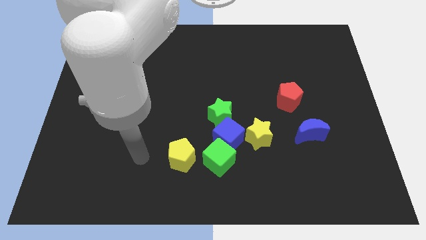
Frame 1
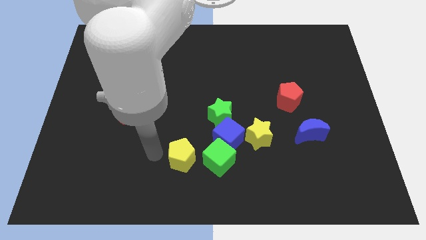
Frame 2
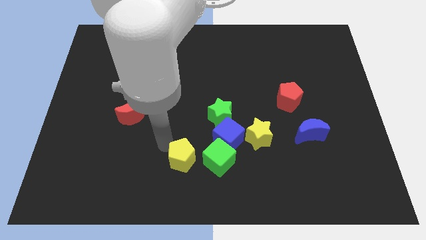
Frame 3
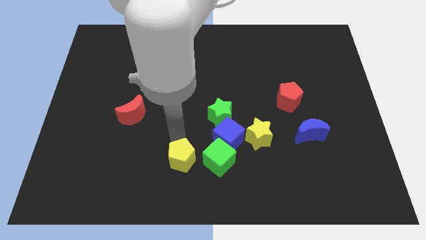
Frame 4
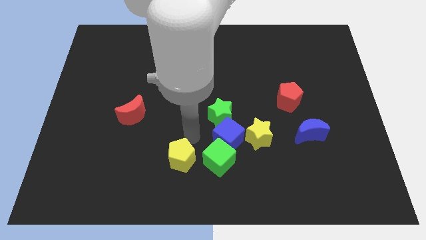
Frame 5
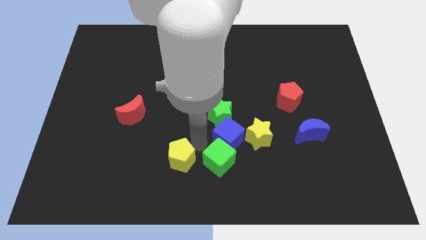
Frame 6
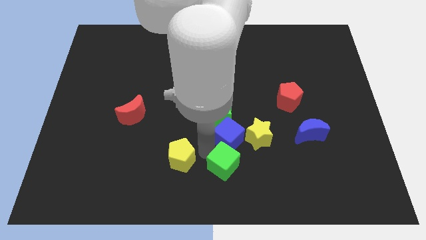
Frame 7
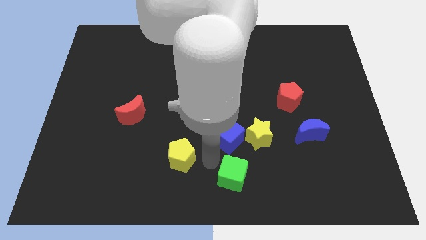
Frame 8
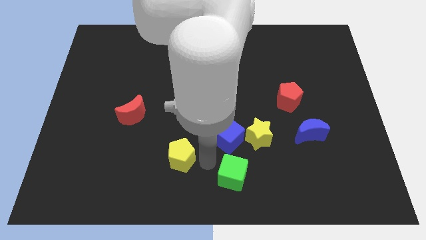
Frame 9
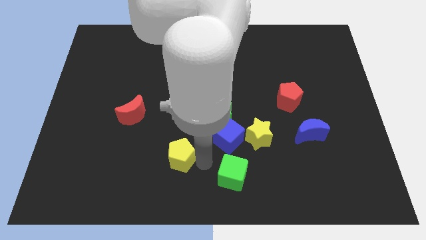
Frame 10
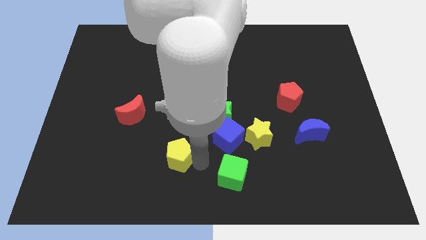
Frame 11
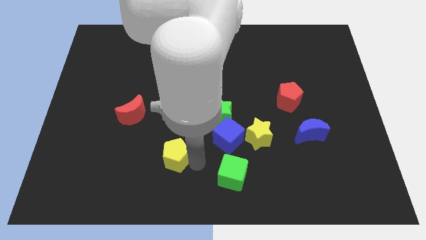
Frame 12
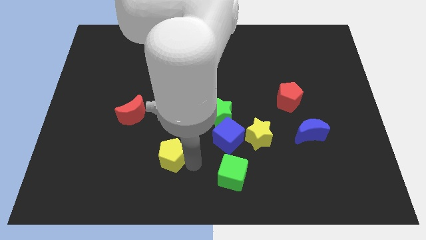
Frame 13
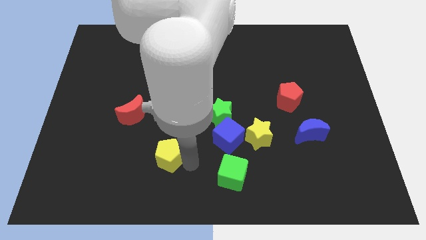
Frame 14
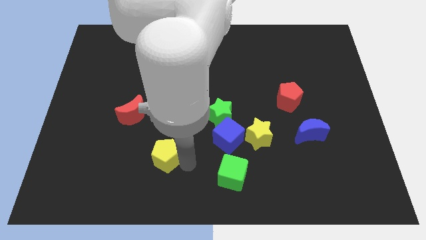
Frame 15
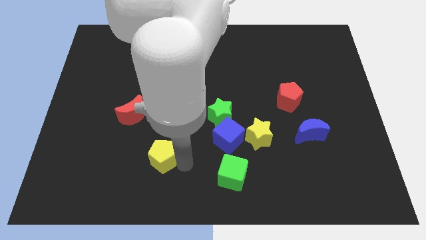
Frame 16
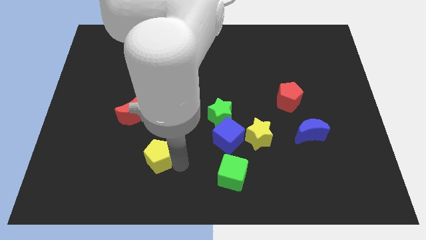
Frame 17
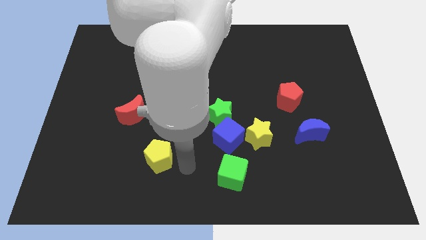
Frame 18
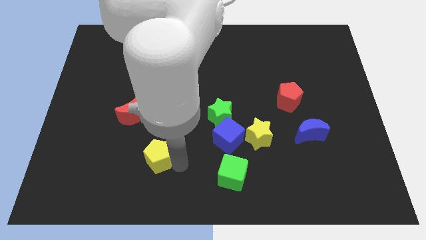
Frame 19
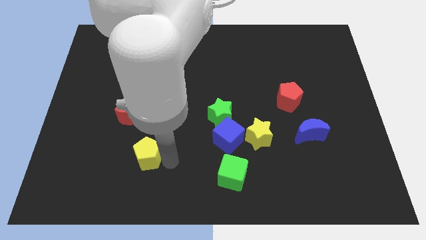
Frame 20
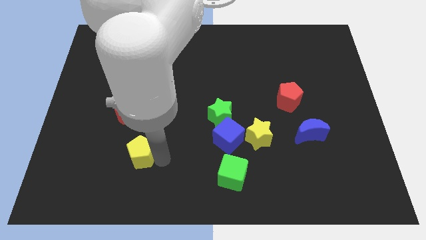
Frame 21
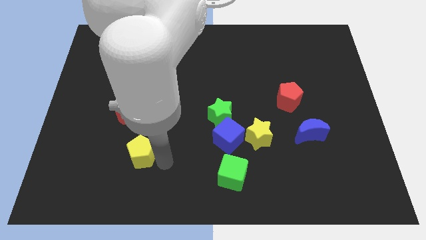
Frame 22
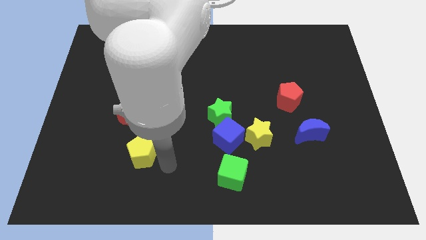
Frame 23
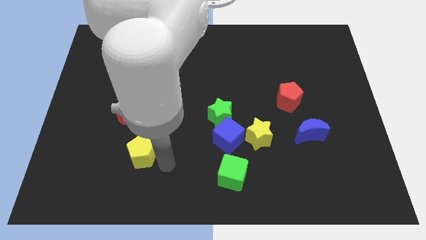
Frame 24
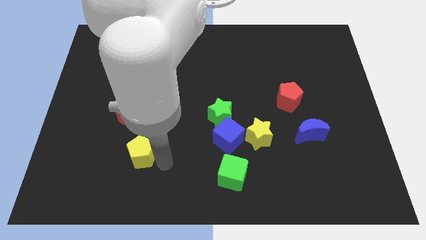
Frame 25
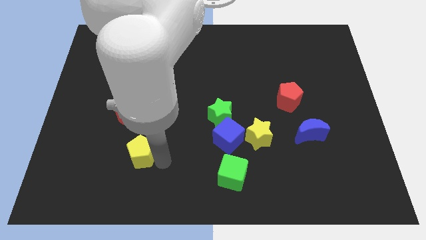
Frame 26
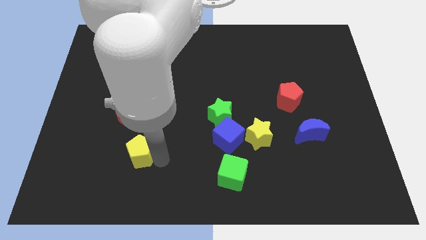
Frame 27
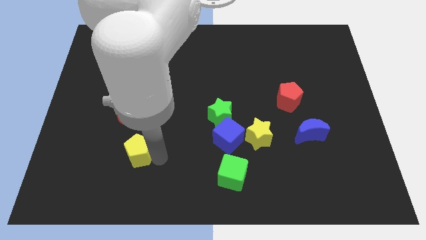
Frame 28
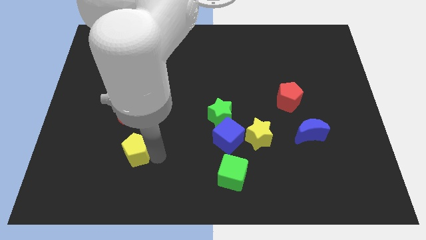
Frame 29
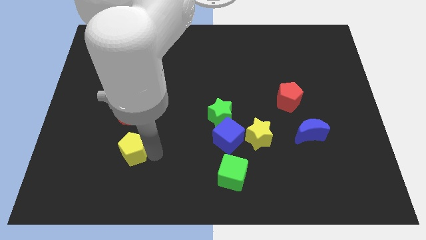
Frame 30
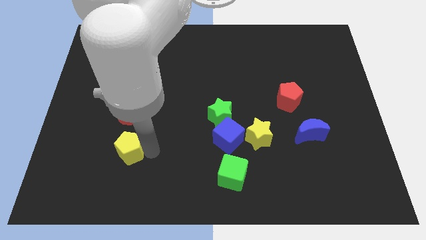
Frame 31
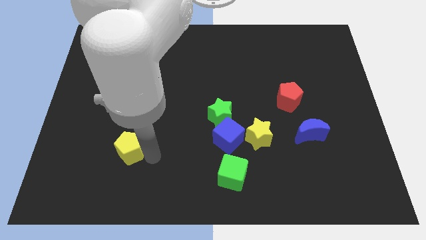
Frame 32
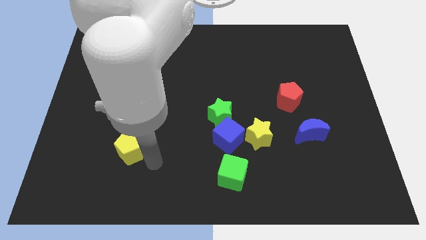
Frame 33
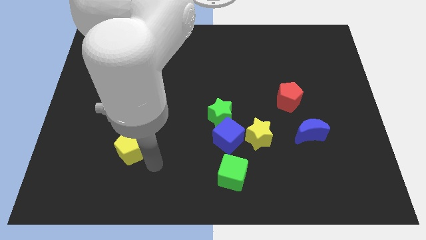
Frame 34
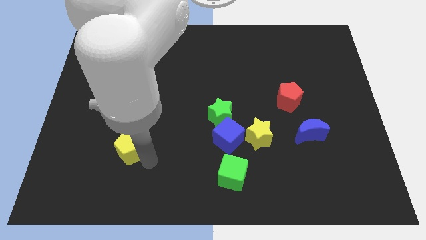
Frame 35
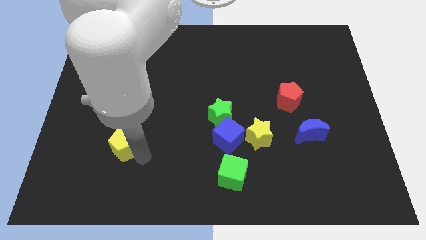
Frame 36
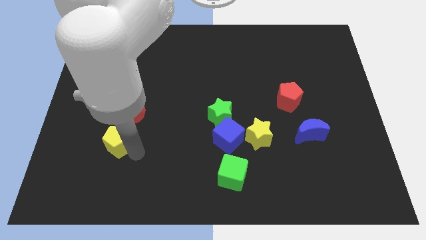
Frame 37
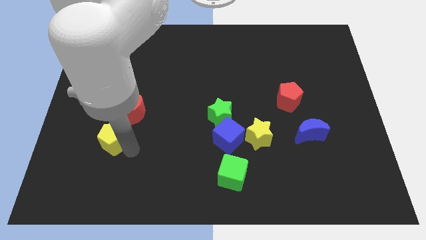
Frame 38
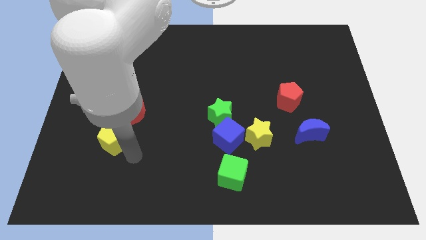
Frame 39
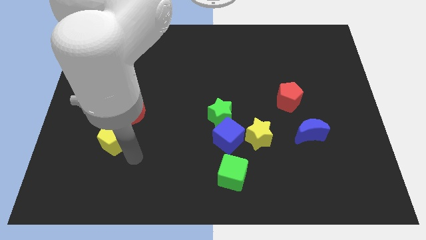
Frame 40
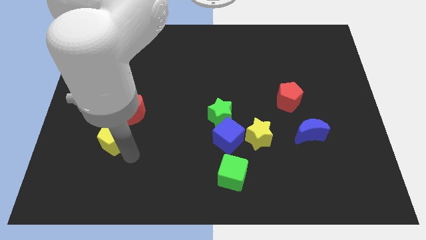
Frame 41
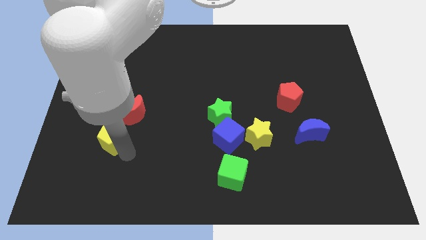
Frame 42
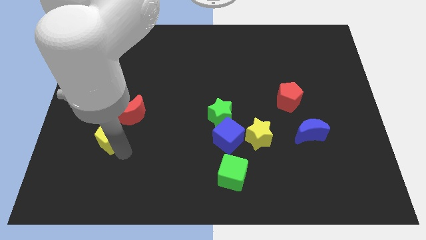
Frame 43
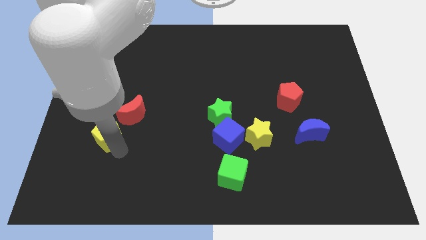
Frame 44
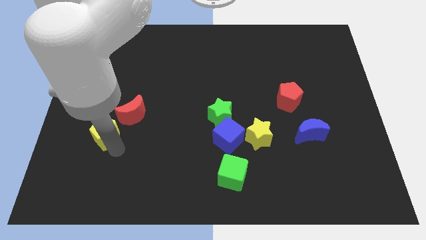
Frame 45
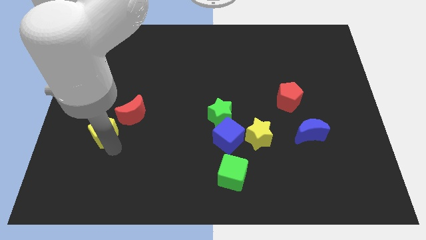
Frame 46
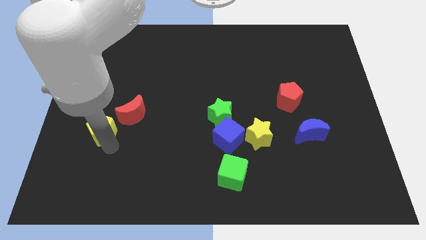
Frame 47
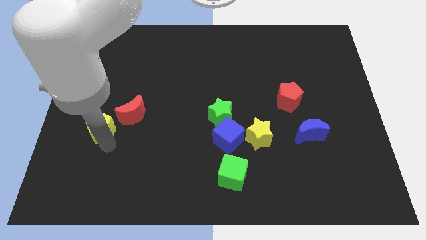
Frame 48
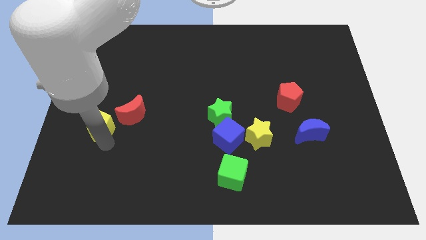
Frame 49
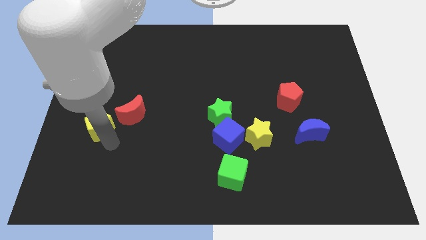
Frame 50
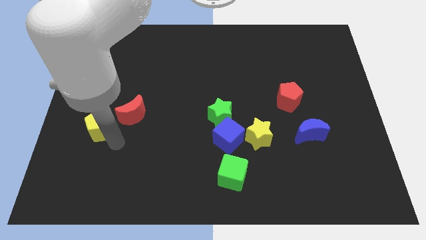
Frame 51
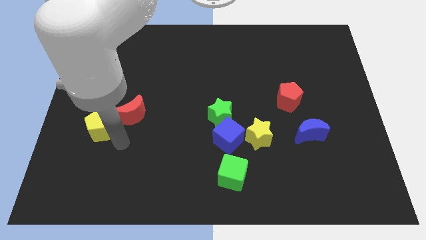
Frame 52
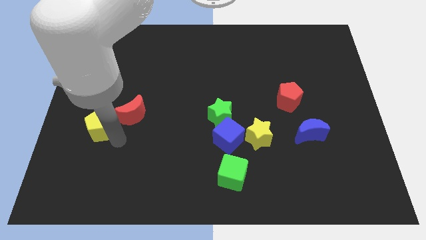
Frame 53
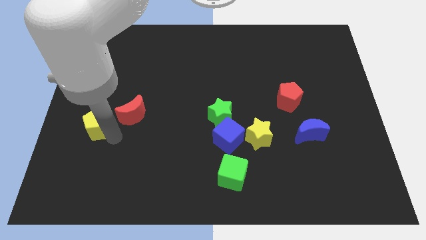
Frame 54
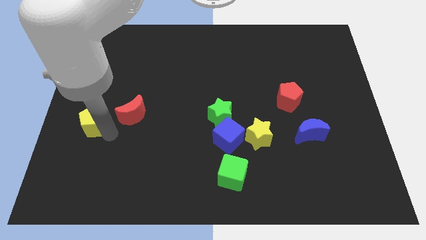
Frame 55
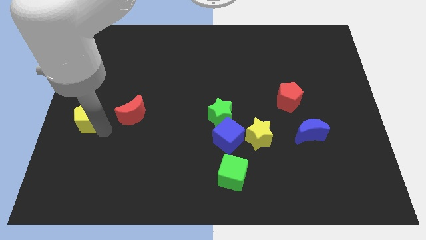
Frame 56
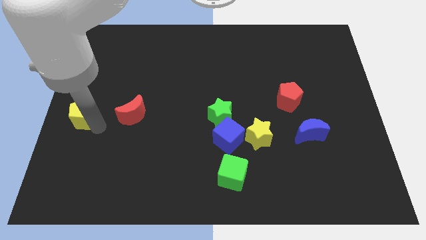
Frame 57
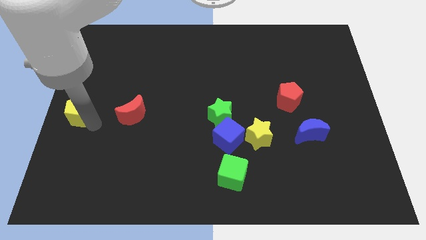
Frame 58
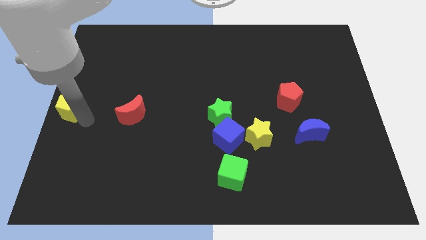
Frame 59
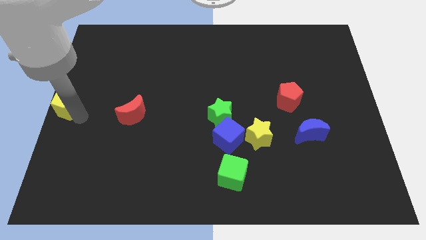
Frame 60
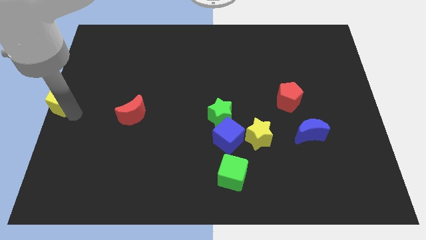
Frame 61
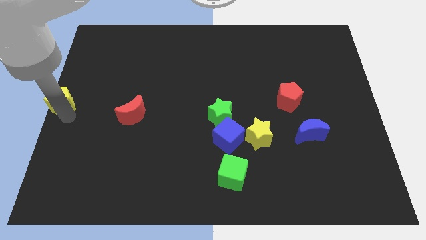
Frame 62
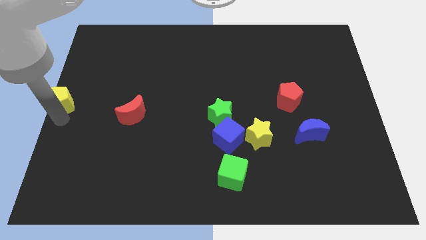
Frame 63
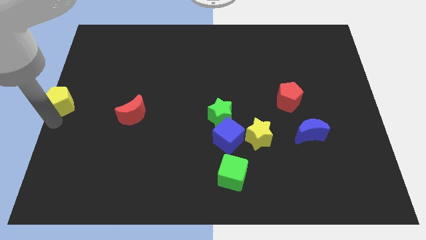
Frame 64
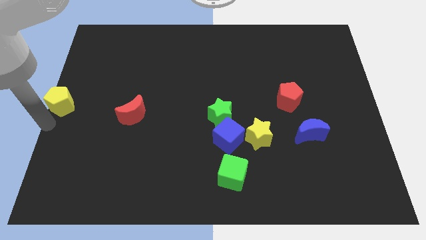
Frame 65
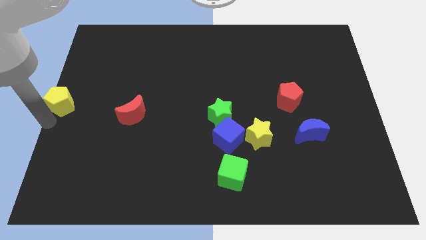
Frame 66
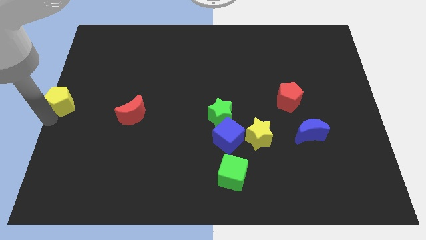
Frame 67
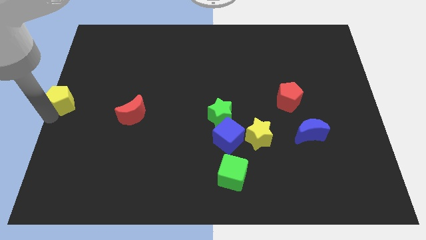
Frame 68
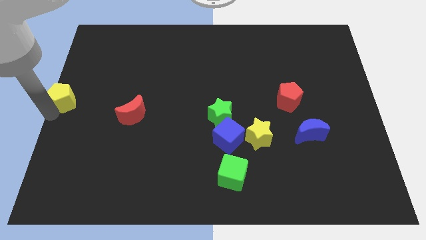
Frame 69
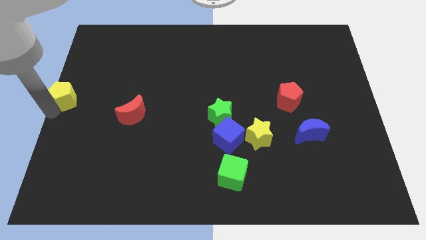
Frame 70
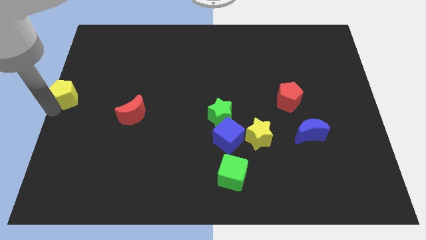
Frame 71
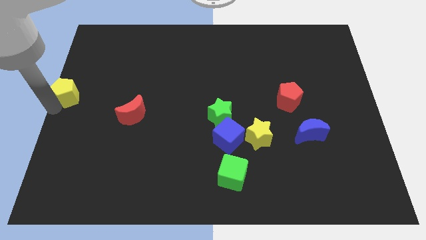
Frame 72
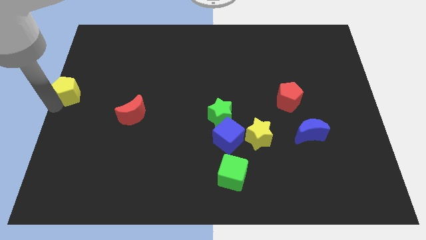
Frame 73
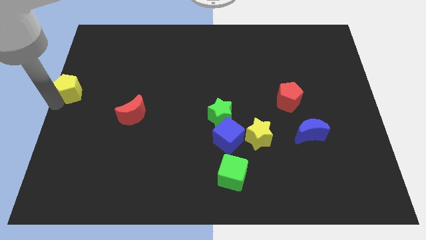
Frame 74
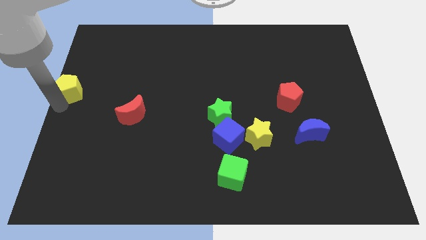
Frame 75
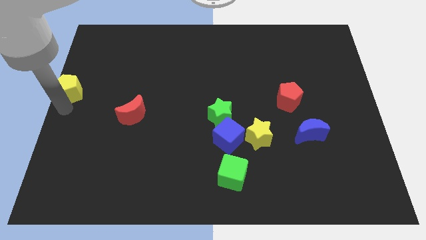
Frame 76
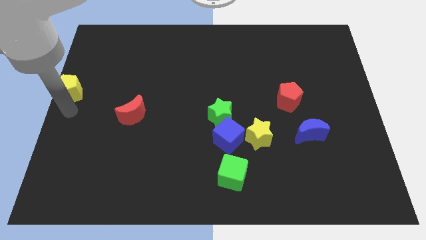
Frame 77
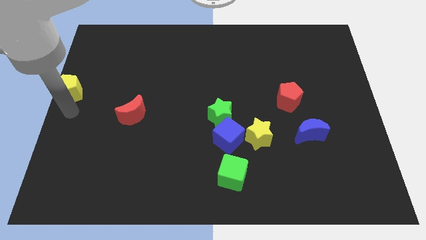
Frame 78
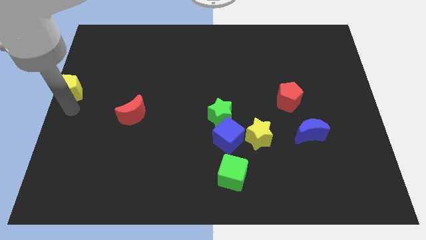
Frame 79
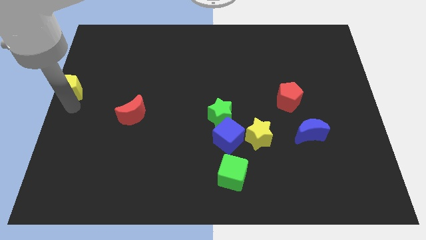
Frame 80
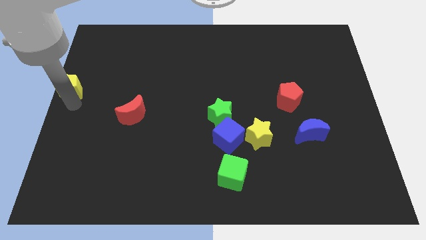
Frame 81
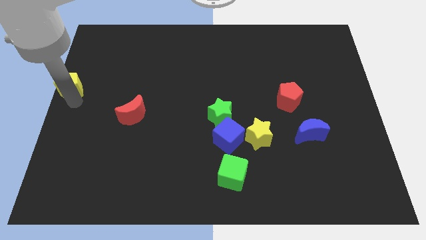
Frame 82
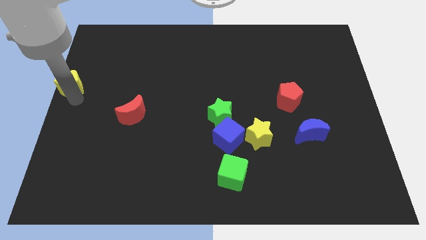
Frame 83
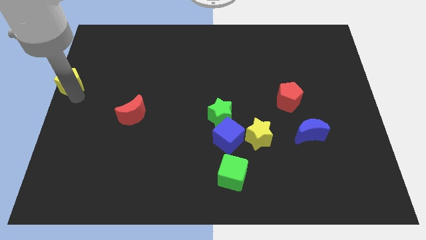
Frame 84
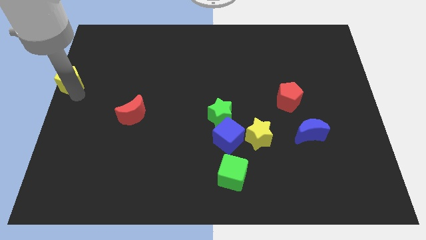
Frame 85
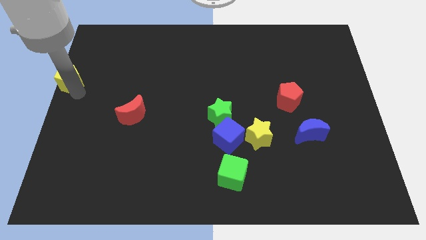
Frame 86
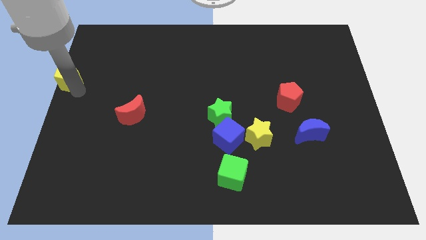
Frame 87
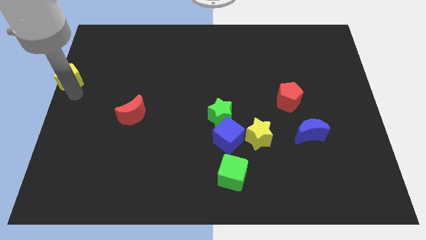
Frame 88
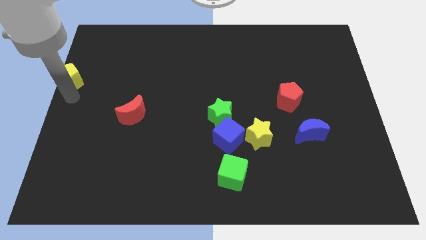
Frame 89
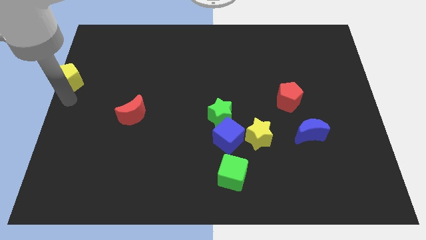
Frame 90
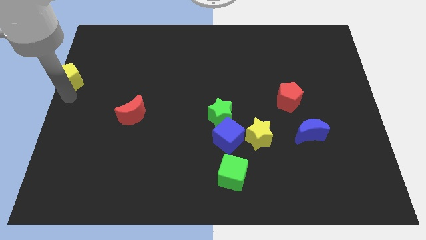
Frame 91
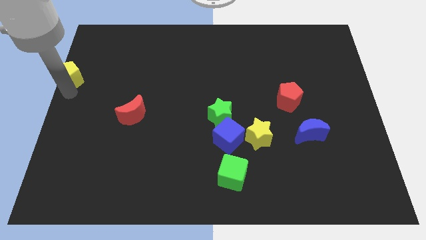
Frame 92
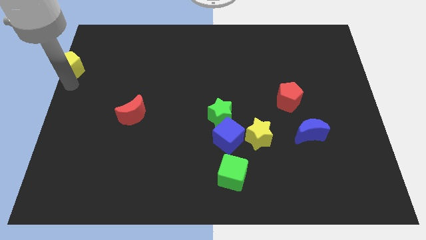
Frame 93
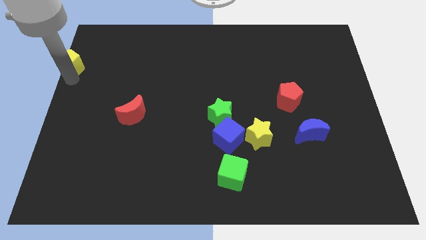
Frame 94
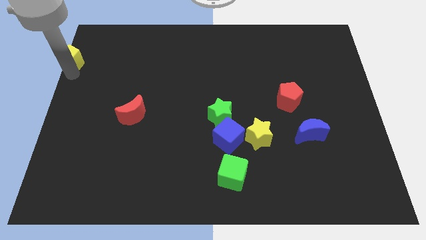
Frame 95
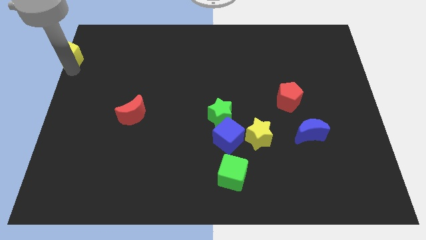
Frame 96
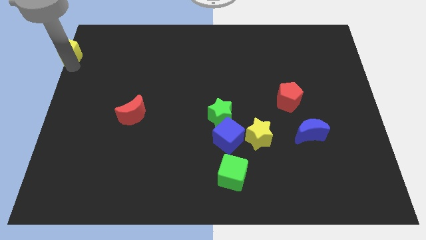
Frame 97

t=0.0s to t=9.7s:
put the yellow pentagon to the top left
